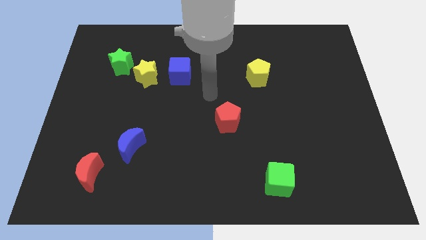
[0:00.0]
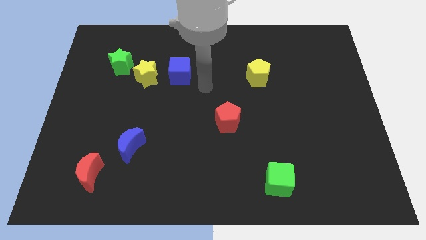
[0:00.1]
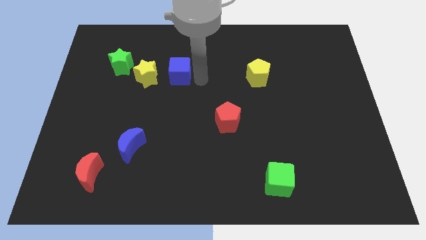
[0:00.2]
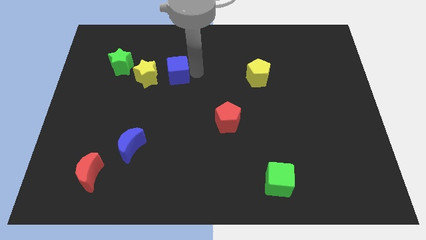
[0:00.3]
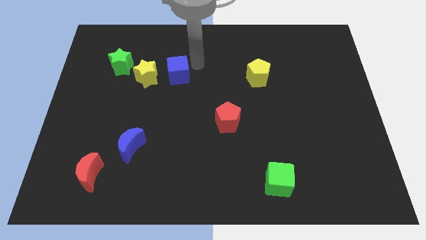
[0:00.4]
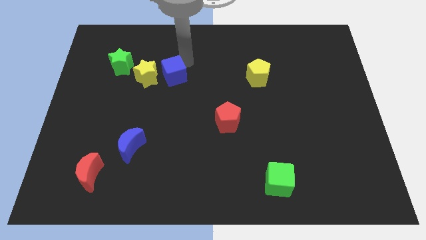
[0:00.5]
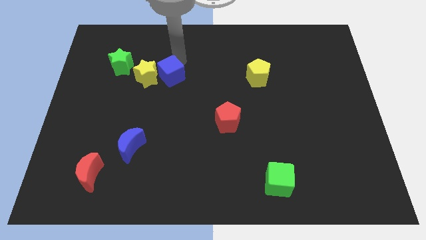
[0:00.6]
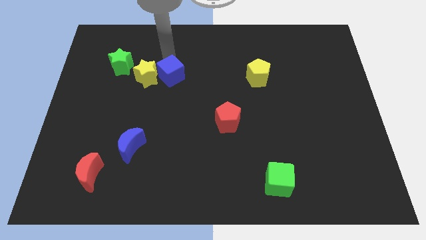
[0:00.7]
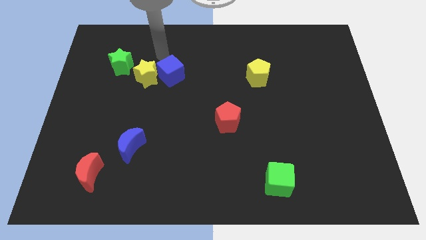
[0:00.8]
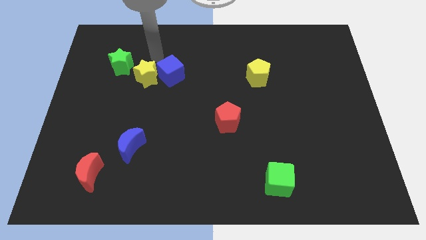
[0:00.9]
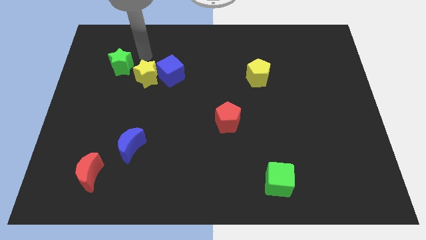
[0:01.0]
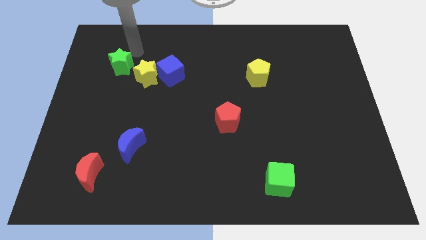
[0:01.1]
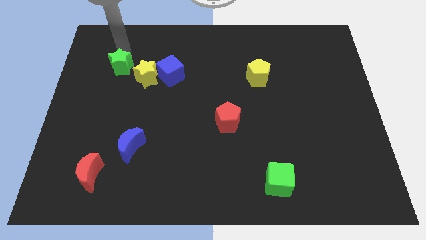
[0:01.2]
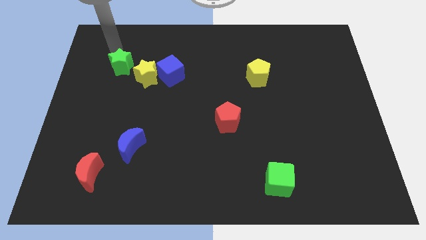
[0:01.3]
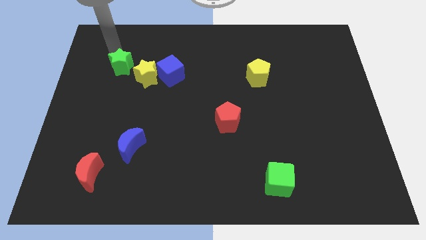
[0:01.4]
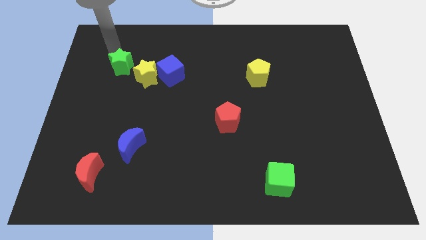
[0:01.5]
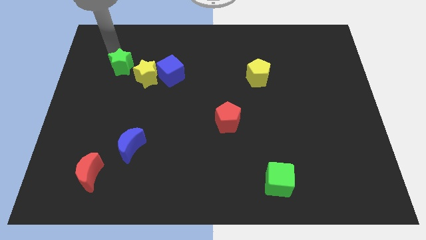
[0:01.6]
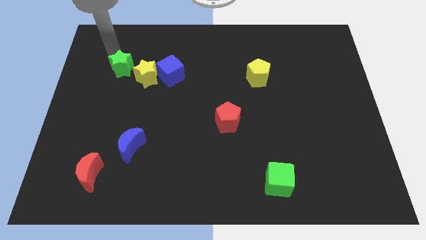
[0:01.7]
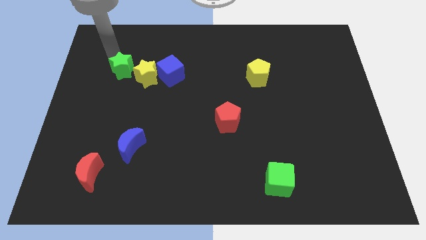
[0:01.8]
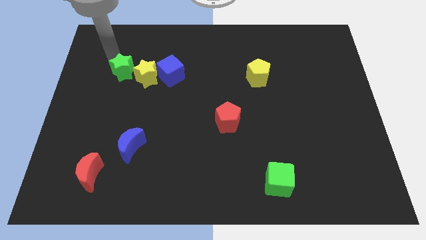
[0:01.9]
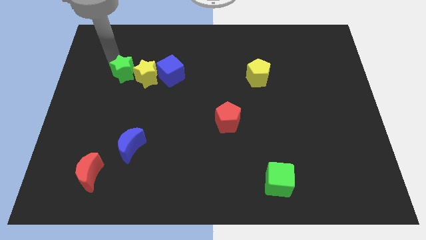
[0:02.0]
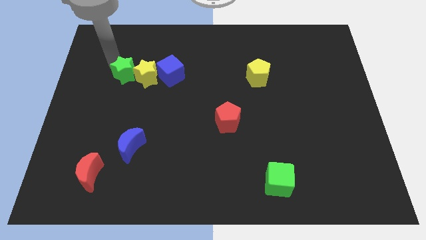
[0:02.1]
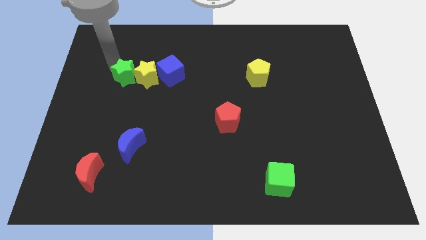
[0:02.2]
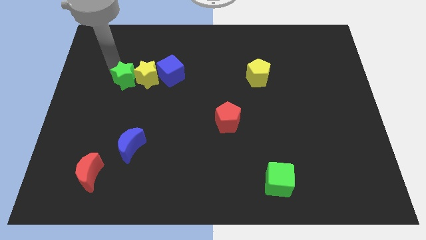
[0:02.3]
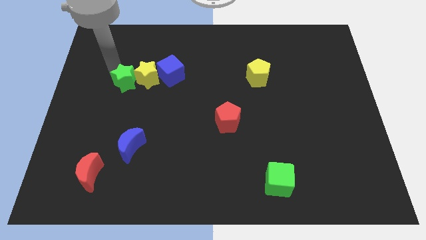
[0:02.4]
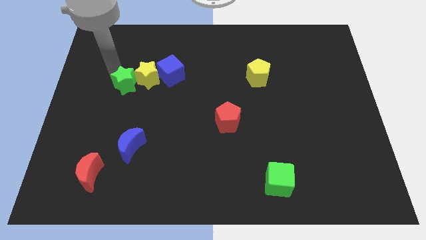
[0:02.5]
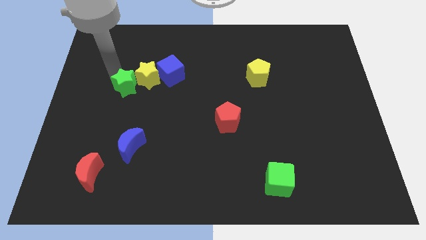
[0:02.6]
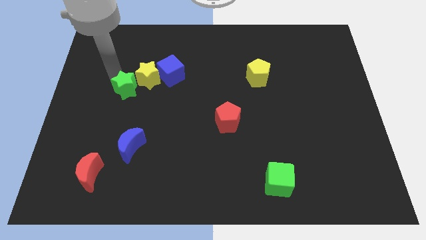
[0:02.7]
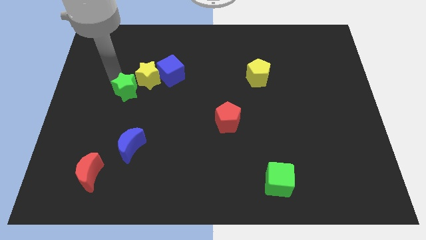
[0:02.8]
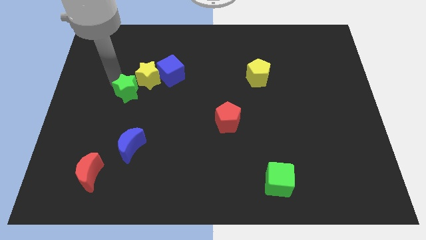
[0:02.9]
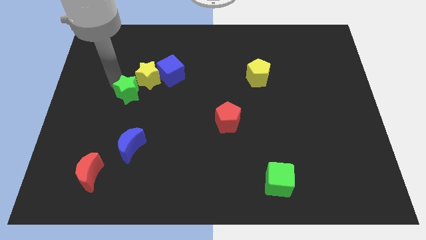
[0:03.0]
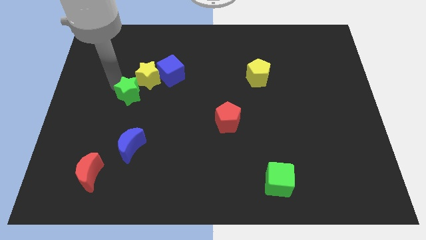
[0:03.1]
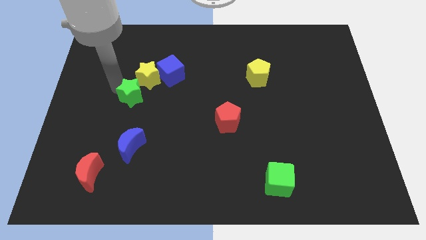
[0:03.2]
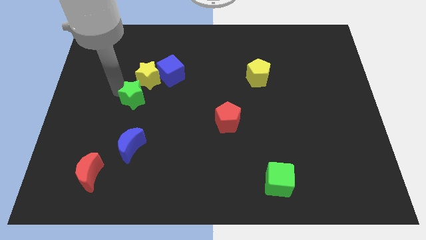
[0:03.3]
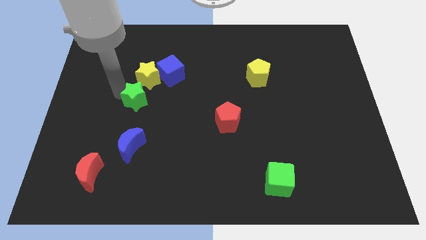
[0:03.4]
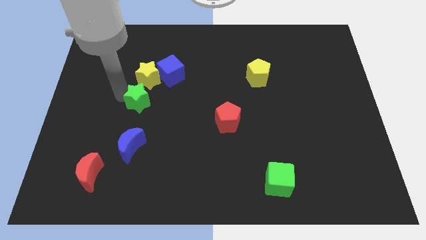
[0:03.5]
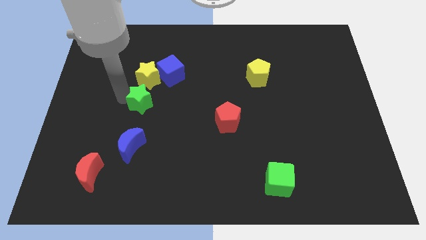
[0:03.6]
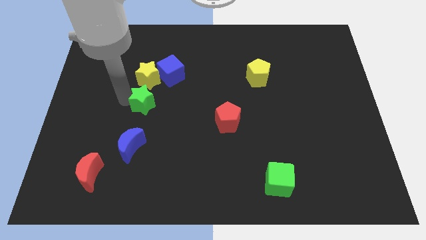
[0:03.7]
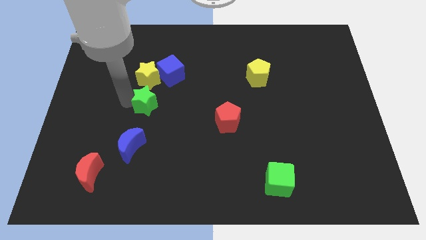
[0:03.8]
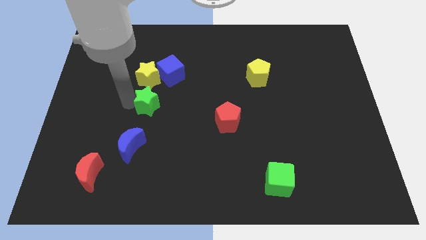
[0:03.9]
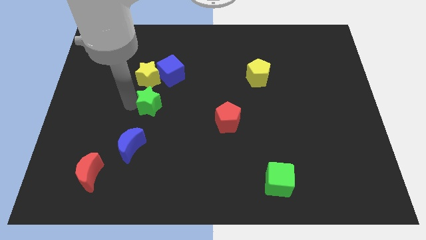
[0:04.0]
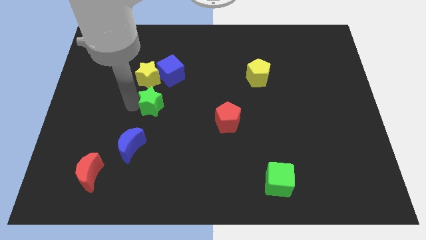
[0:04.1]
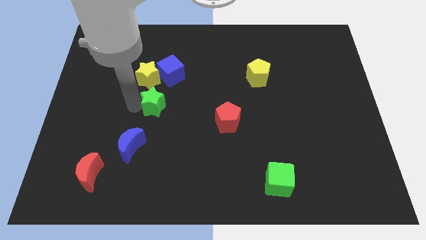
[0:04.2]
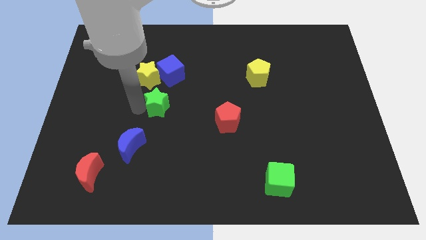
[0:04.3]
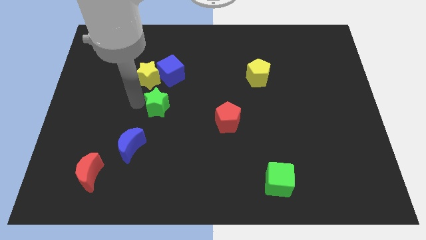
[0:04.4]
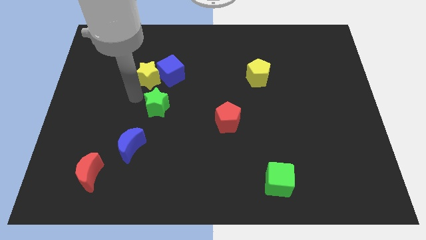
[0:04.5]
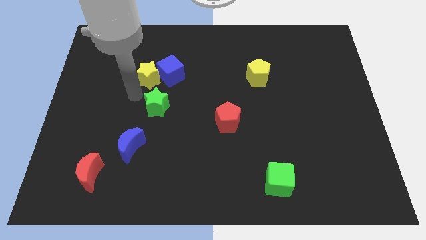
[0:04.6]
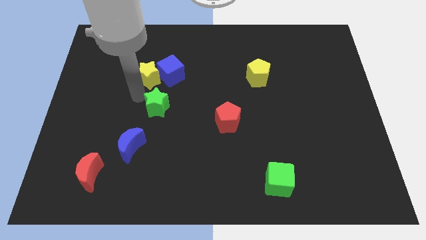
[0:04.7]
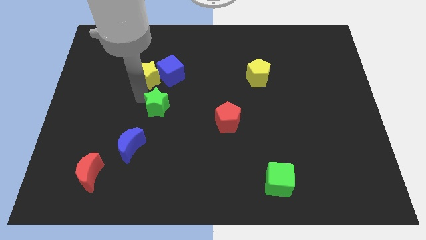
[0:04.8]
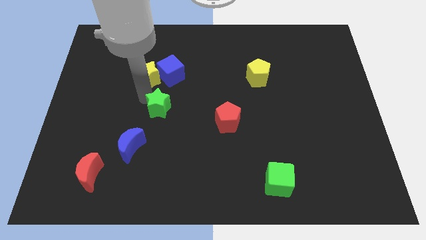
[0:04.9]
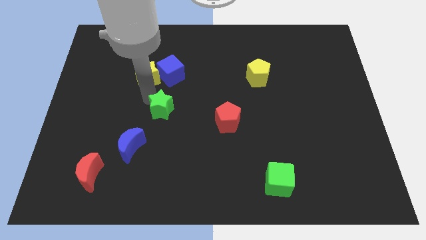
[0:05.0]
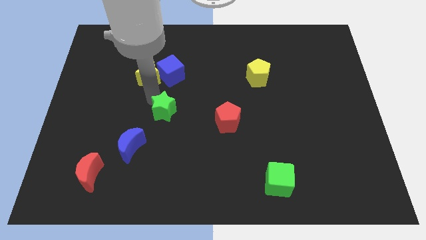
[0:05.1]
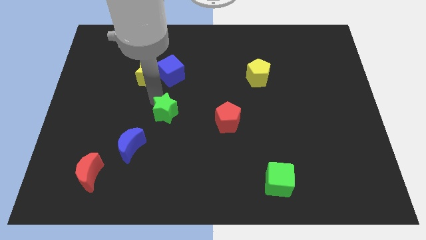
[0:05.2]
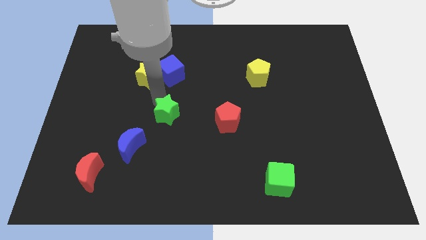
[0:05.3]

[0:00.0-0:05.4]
slide the green star down and right

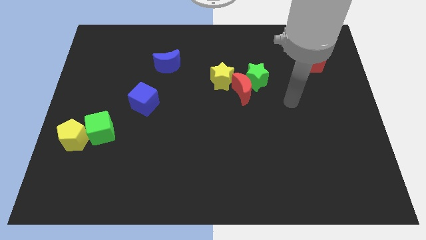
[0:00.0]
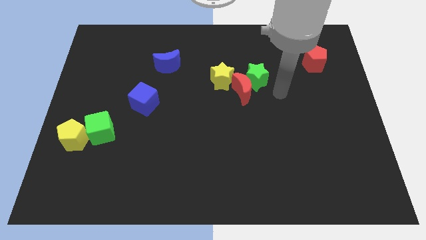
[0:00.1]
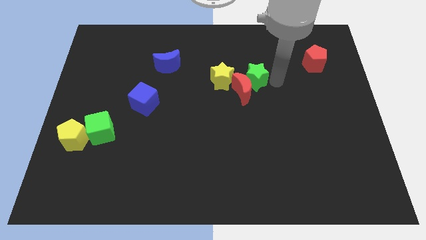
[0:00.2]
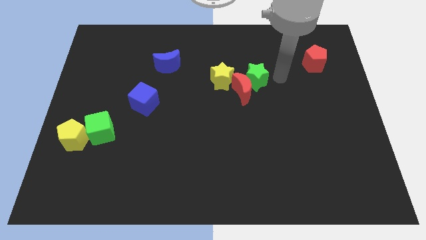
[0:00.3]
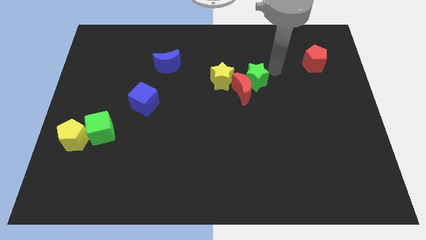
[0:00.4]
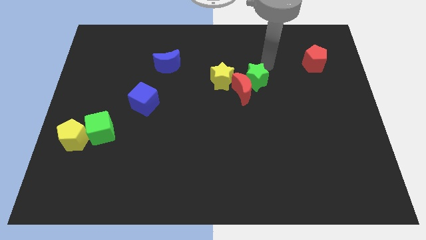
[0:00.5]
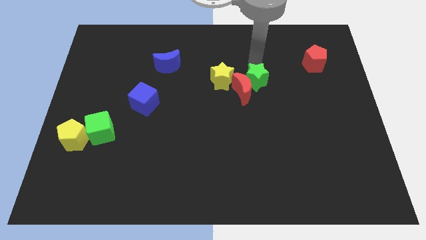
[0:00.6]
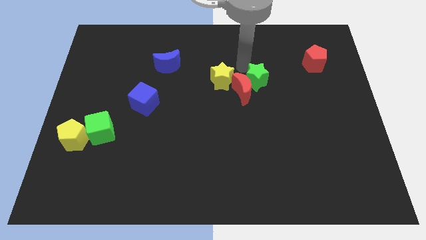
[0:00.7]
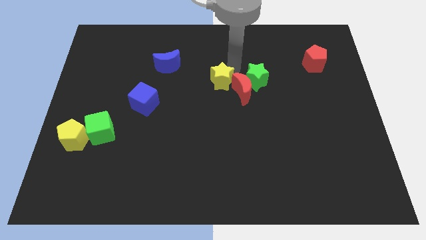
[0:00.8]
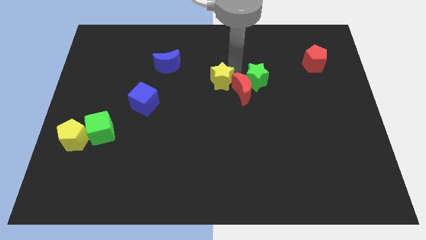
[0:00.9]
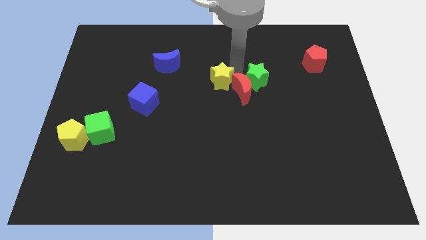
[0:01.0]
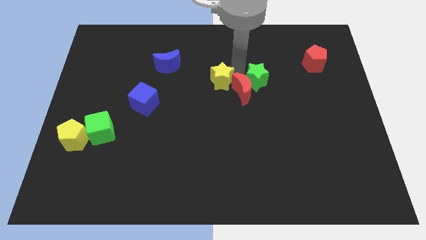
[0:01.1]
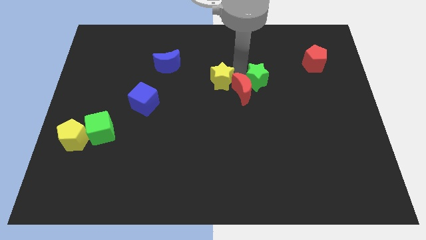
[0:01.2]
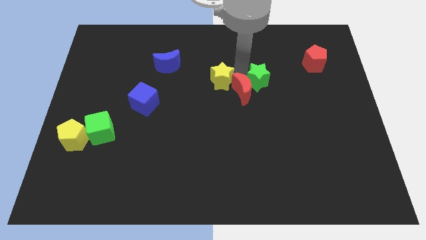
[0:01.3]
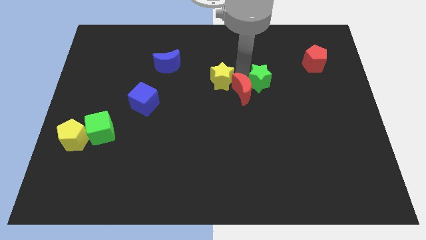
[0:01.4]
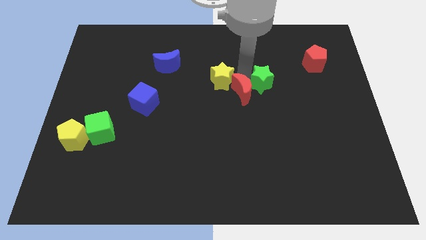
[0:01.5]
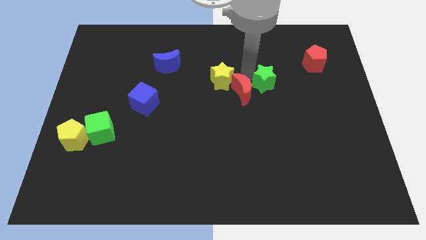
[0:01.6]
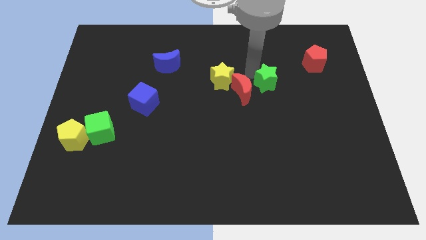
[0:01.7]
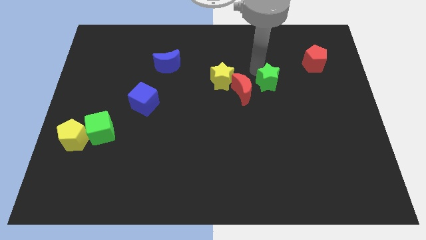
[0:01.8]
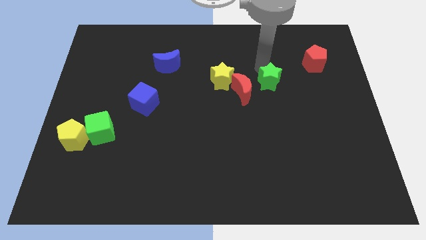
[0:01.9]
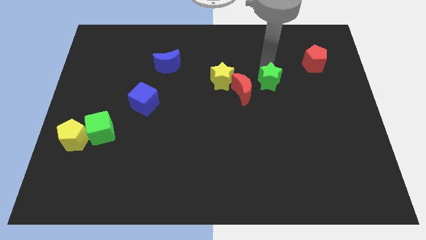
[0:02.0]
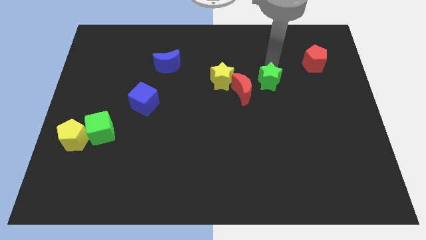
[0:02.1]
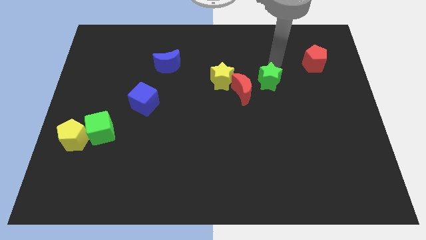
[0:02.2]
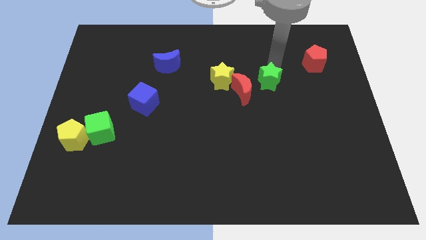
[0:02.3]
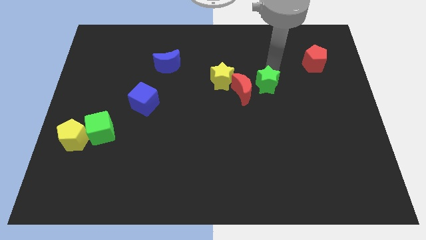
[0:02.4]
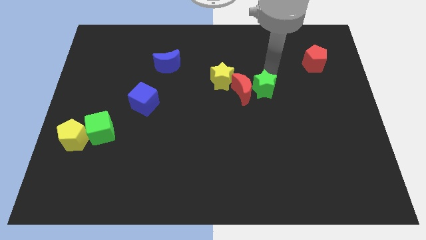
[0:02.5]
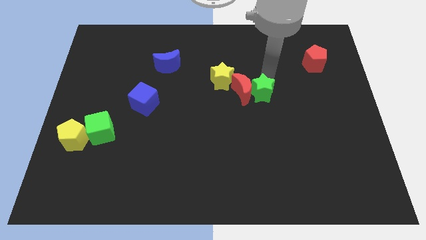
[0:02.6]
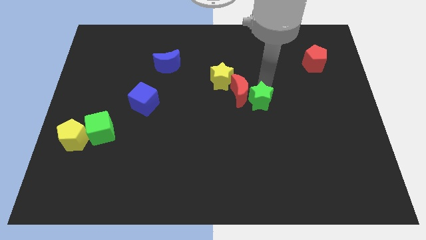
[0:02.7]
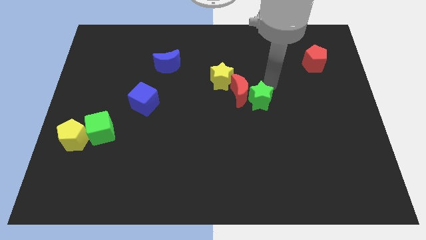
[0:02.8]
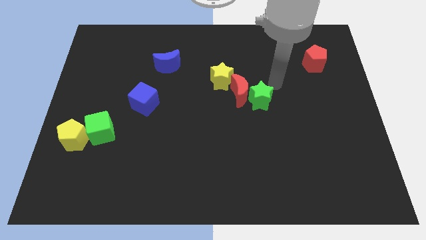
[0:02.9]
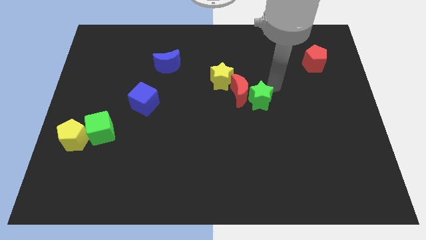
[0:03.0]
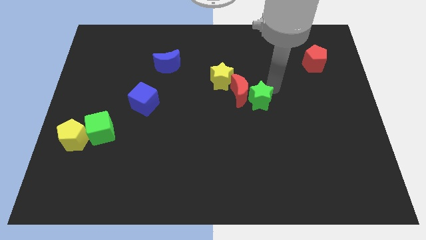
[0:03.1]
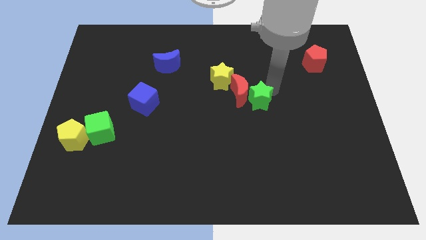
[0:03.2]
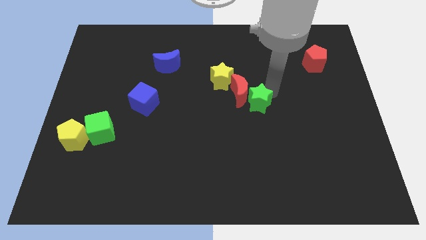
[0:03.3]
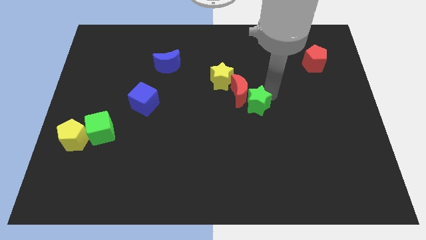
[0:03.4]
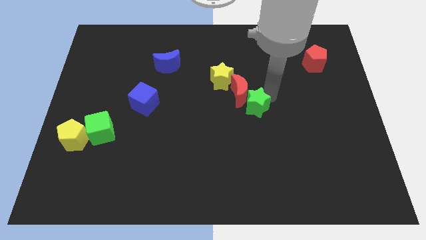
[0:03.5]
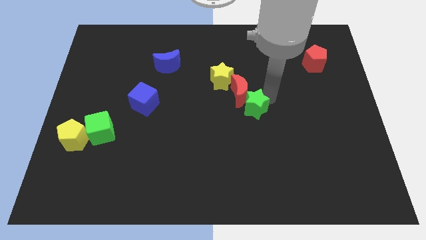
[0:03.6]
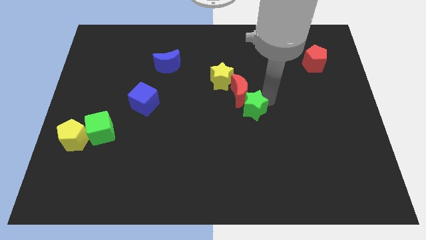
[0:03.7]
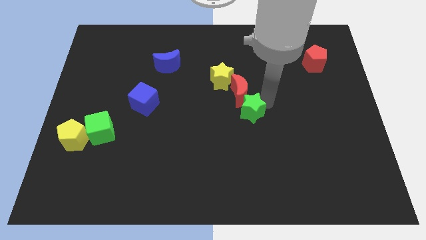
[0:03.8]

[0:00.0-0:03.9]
move the green star downwards and then left somewhat
